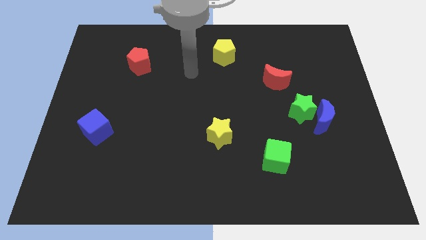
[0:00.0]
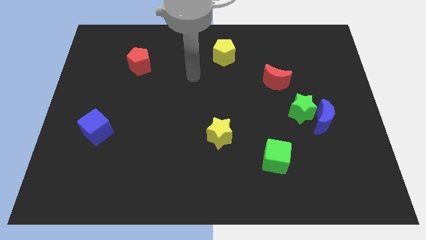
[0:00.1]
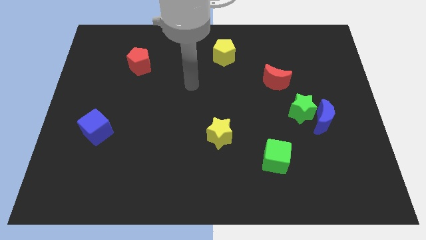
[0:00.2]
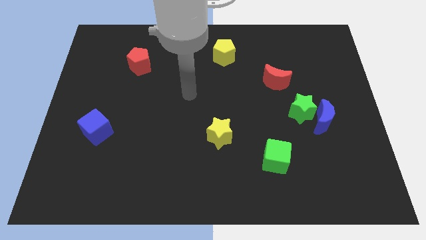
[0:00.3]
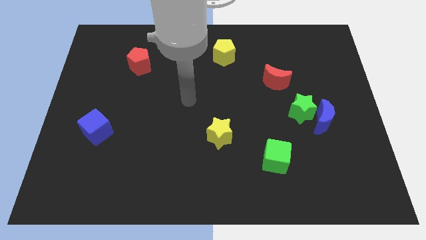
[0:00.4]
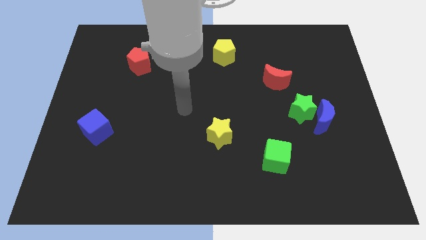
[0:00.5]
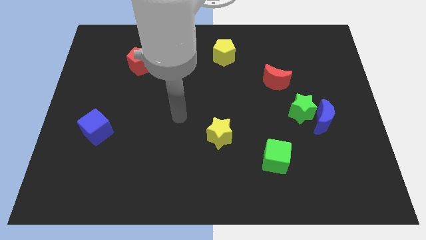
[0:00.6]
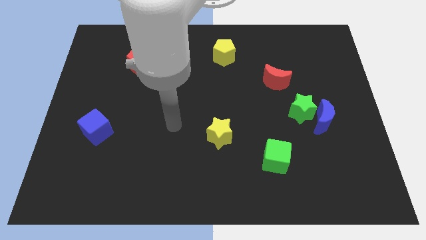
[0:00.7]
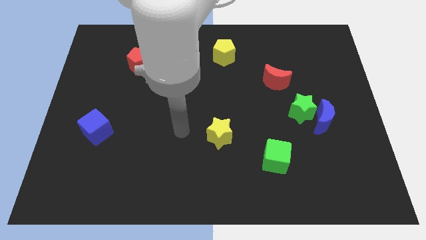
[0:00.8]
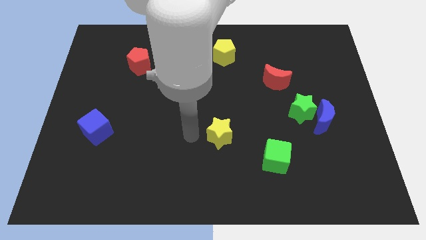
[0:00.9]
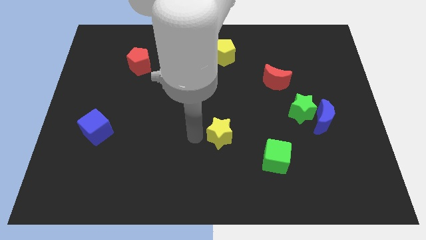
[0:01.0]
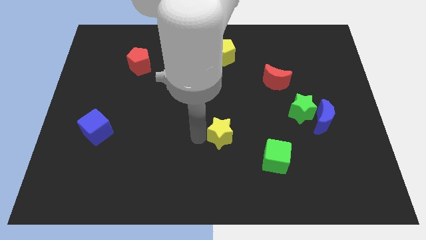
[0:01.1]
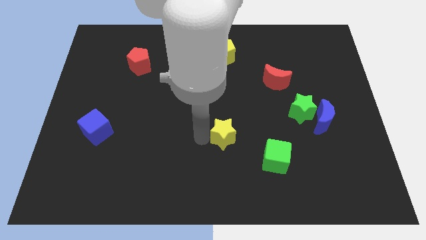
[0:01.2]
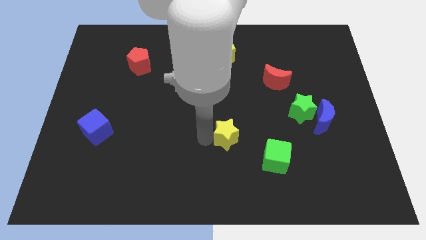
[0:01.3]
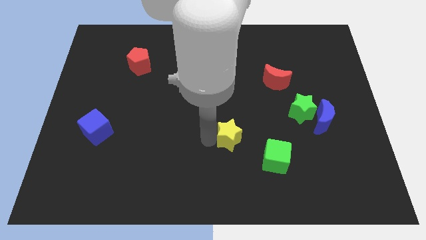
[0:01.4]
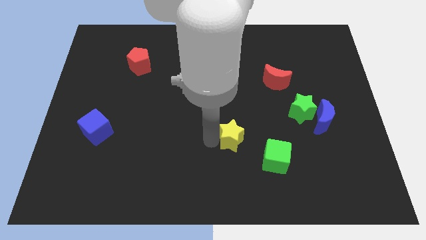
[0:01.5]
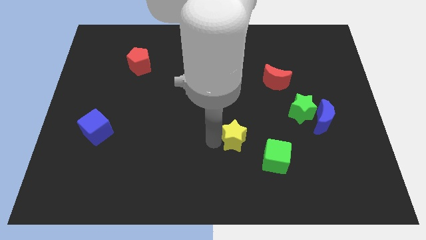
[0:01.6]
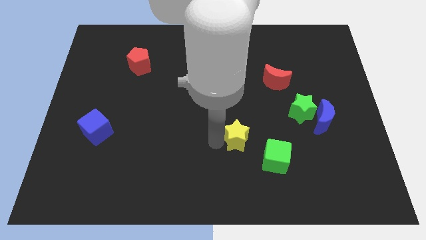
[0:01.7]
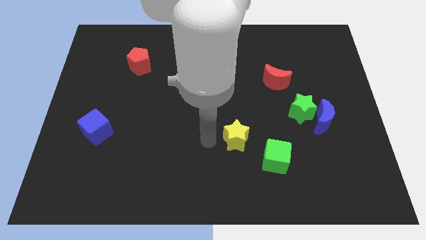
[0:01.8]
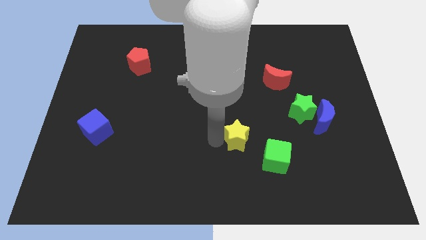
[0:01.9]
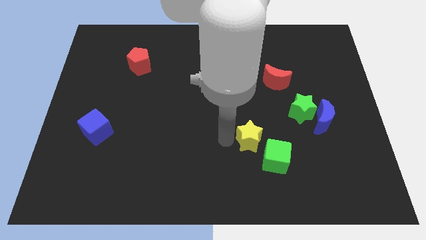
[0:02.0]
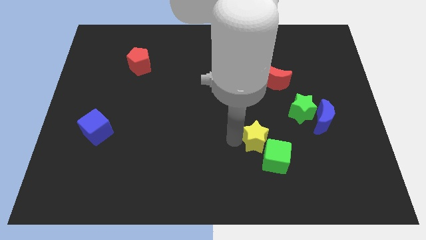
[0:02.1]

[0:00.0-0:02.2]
move the yellow star somewhat to the right

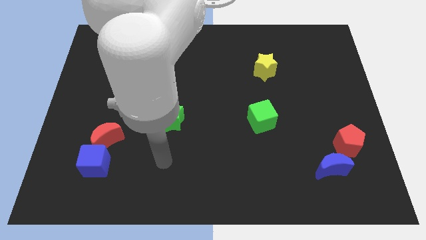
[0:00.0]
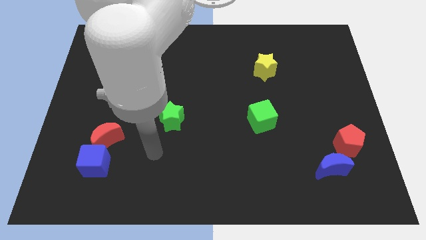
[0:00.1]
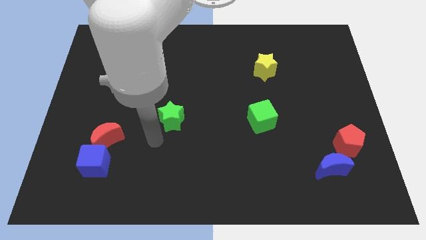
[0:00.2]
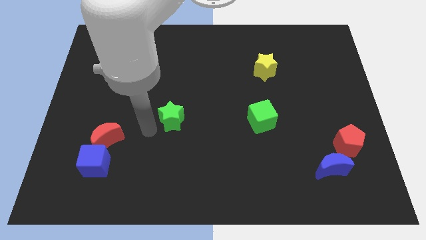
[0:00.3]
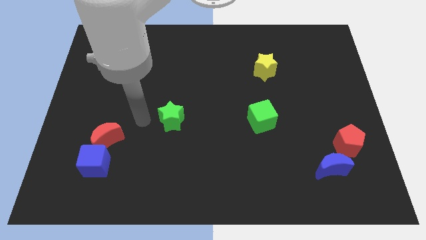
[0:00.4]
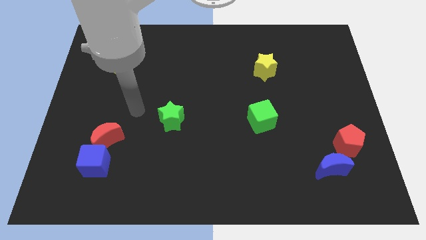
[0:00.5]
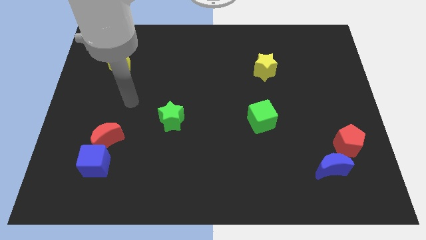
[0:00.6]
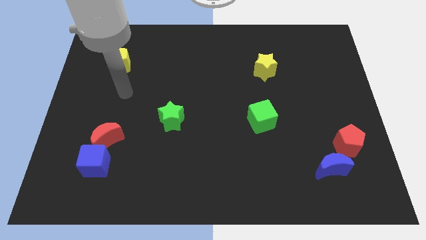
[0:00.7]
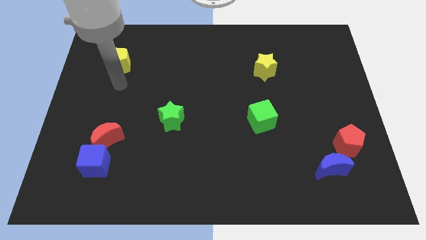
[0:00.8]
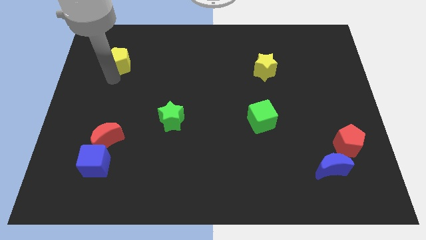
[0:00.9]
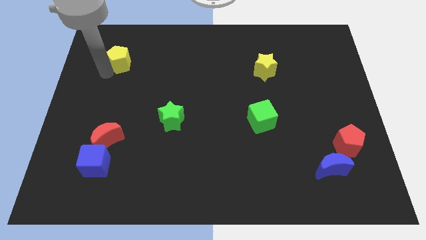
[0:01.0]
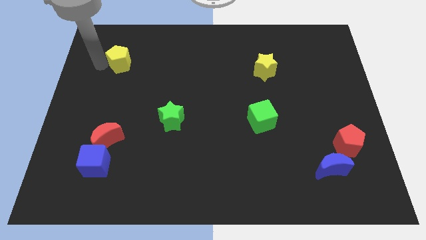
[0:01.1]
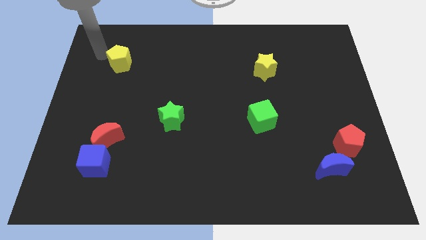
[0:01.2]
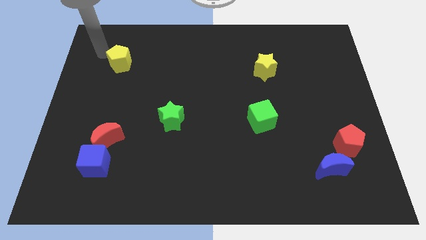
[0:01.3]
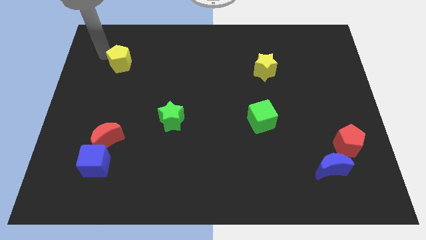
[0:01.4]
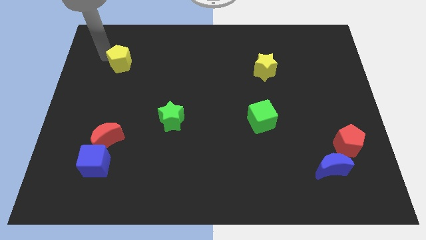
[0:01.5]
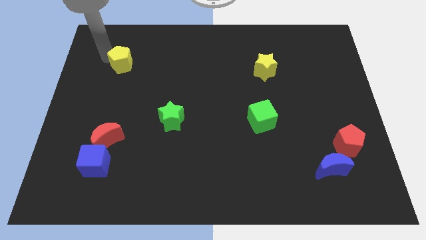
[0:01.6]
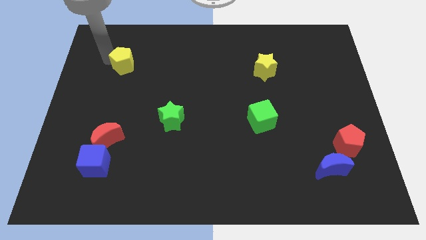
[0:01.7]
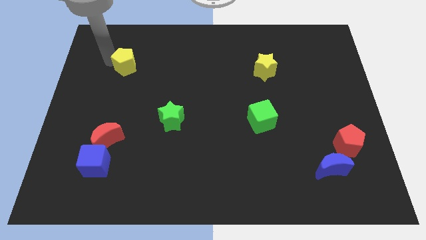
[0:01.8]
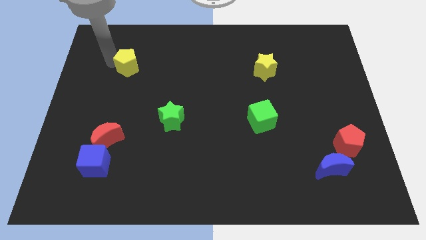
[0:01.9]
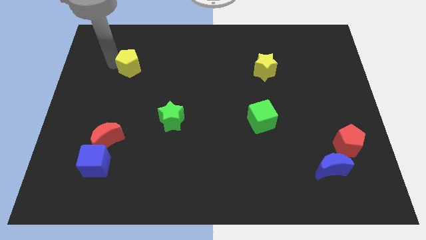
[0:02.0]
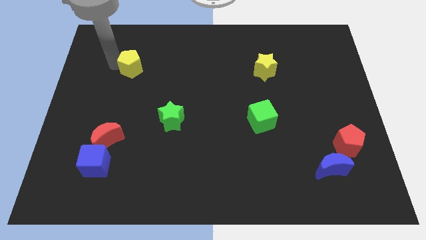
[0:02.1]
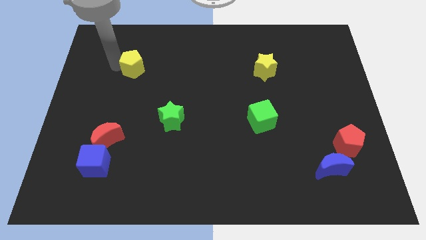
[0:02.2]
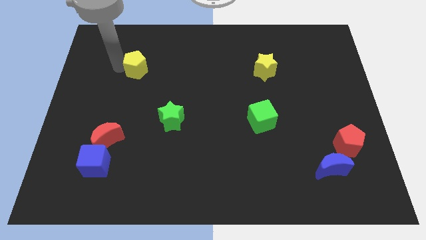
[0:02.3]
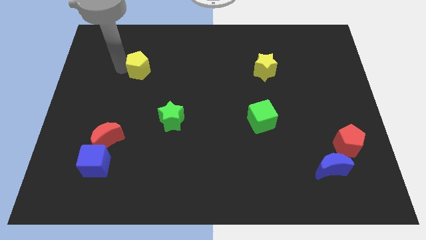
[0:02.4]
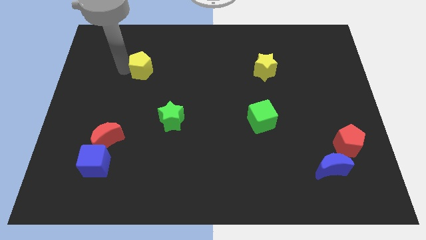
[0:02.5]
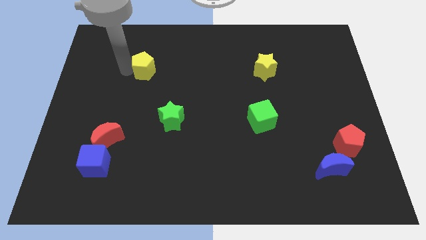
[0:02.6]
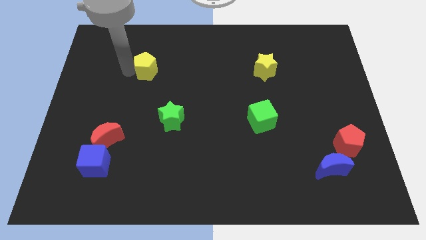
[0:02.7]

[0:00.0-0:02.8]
move the yellow pentagon to the right a little

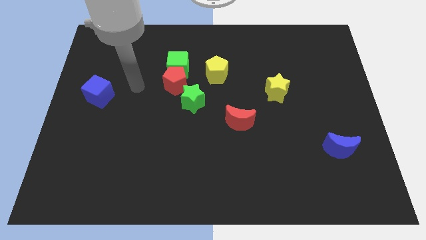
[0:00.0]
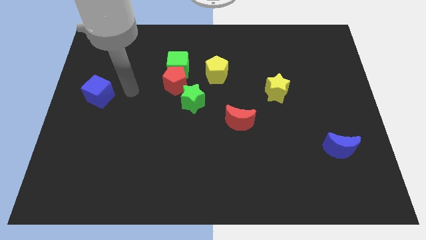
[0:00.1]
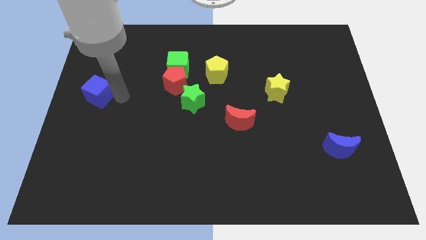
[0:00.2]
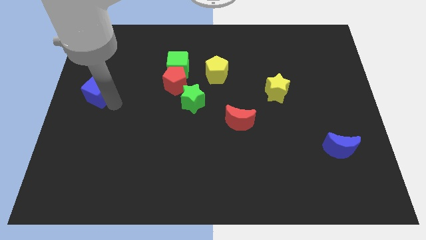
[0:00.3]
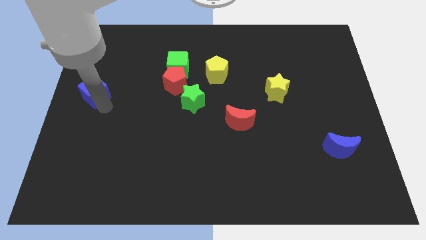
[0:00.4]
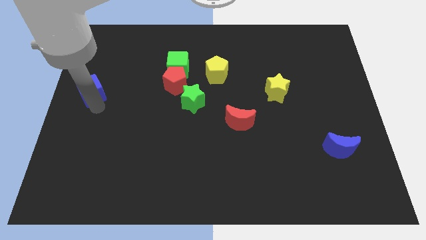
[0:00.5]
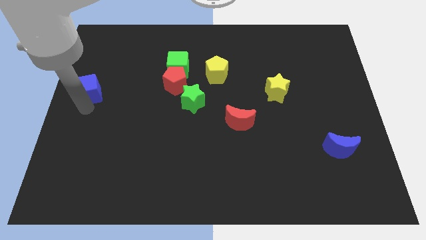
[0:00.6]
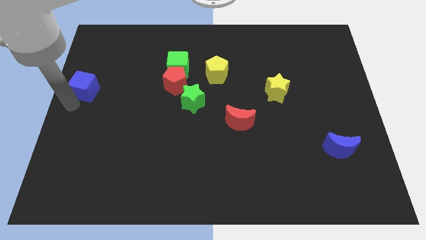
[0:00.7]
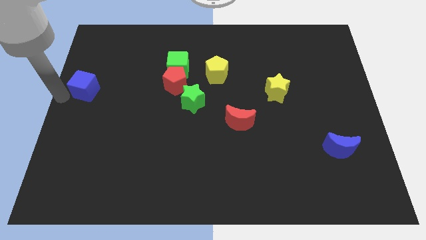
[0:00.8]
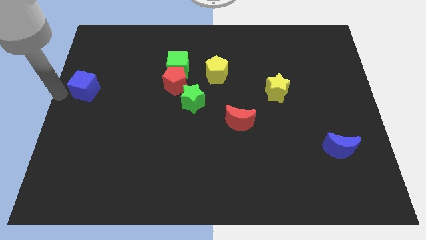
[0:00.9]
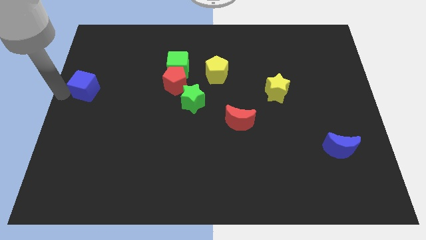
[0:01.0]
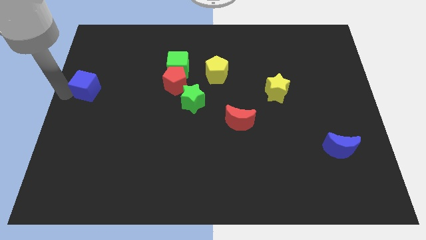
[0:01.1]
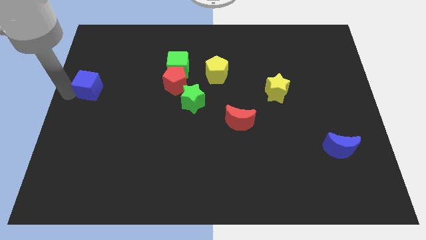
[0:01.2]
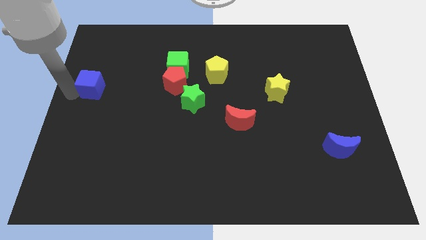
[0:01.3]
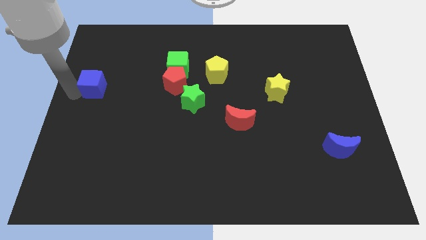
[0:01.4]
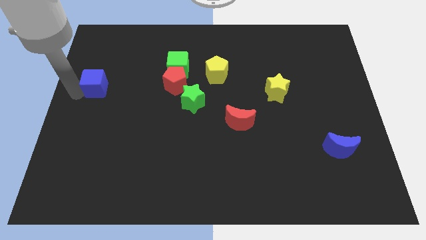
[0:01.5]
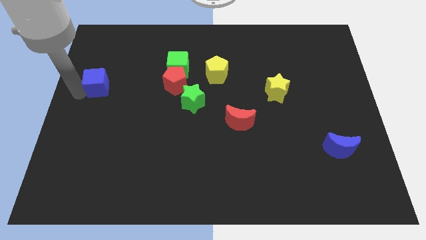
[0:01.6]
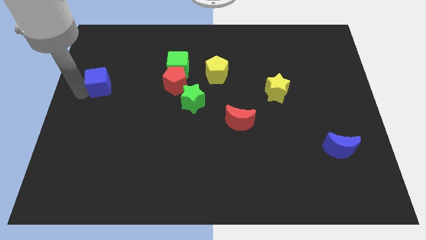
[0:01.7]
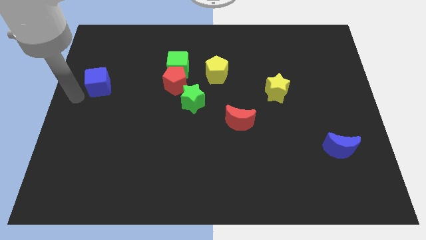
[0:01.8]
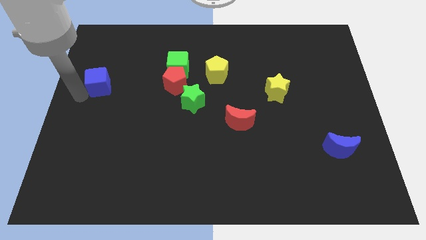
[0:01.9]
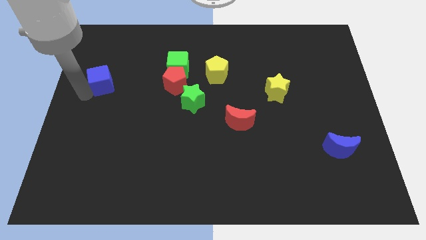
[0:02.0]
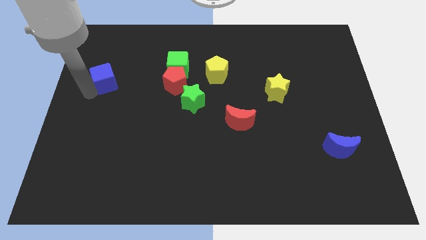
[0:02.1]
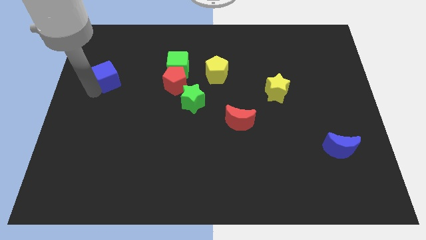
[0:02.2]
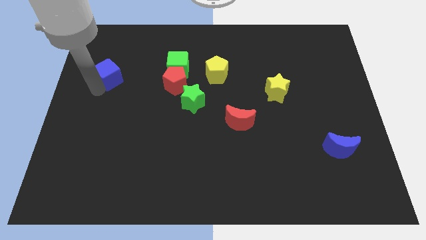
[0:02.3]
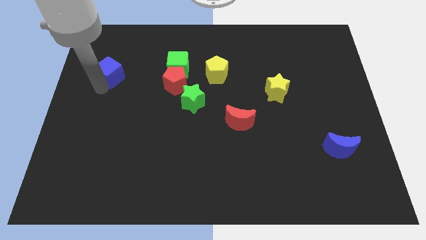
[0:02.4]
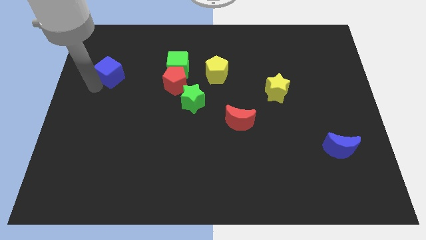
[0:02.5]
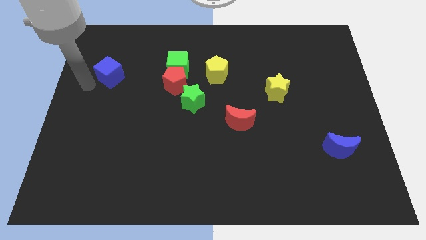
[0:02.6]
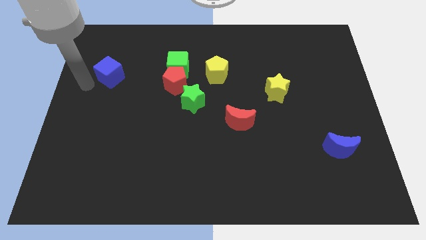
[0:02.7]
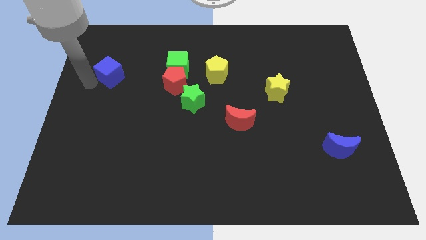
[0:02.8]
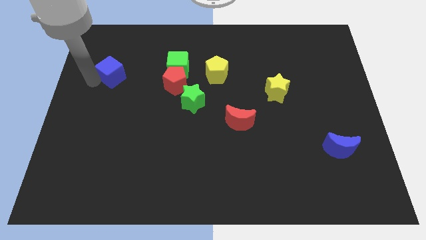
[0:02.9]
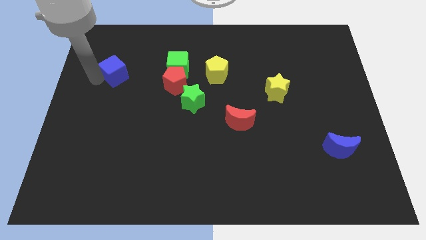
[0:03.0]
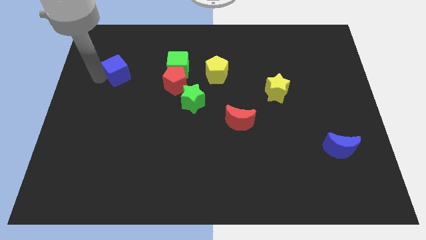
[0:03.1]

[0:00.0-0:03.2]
slide the blue cube diagonally up and right a bit
